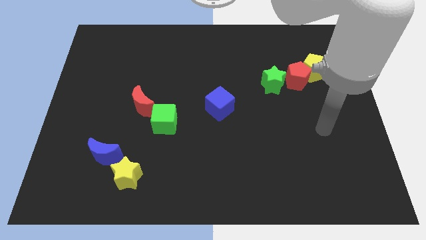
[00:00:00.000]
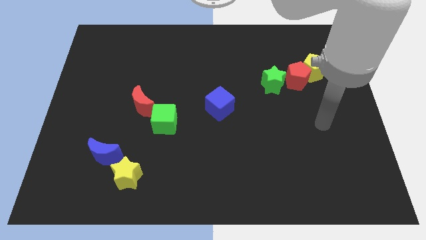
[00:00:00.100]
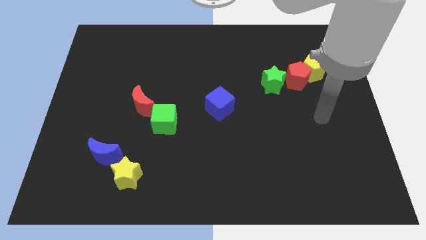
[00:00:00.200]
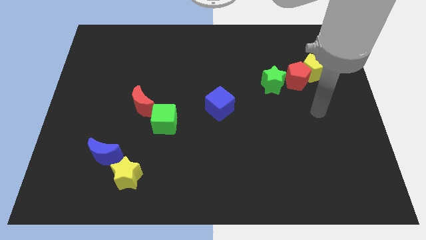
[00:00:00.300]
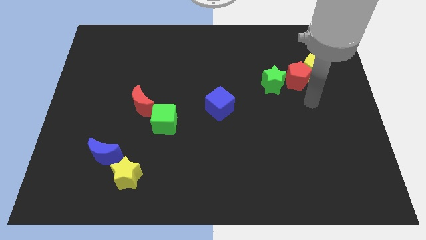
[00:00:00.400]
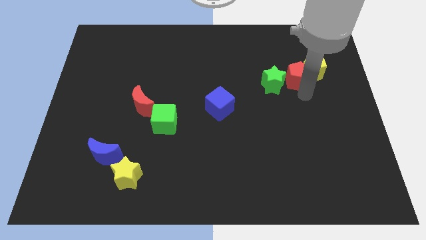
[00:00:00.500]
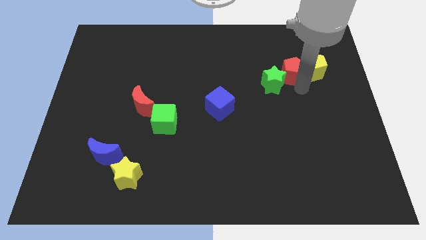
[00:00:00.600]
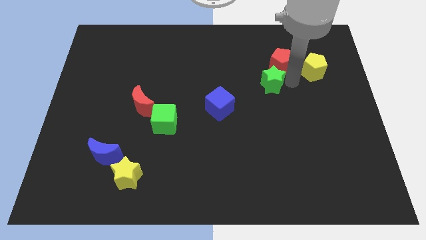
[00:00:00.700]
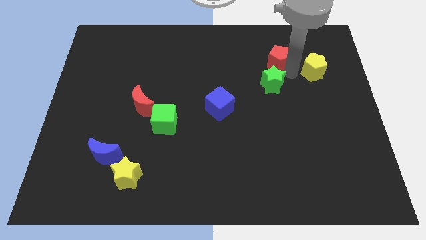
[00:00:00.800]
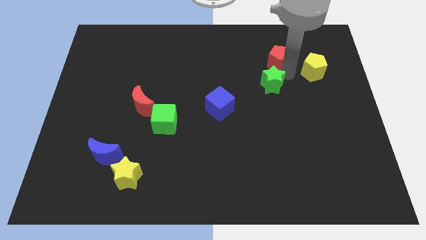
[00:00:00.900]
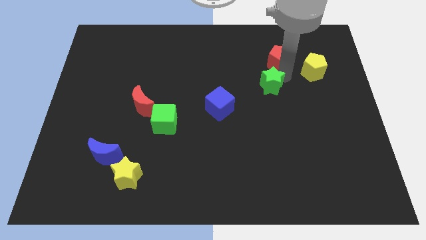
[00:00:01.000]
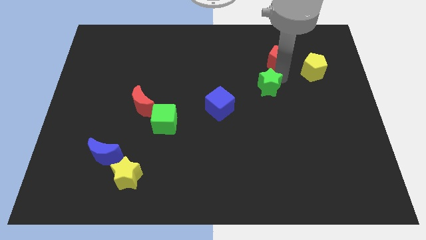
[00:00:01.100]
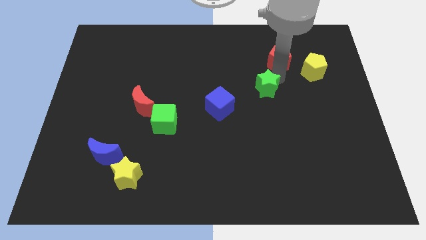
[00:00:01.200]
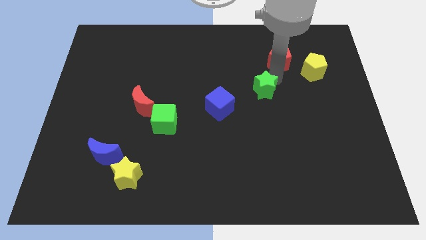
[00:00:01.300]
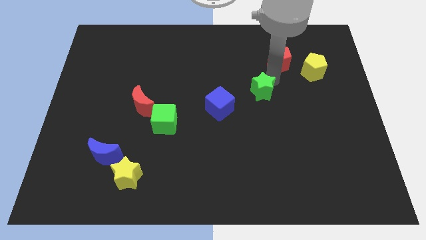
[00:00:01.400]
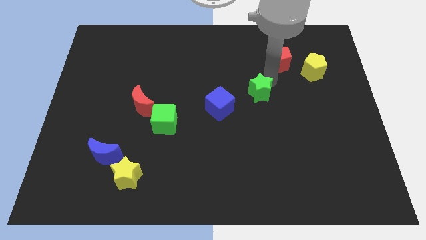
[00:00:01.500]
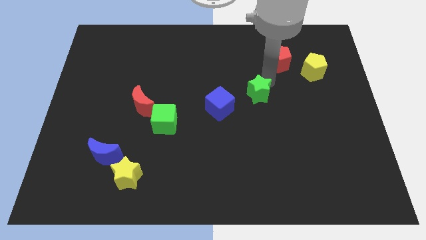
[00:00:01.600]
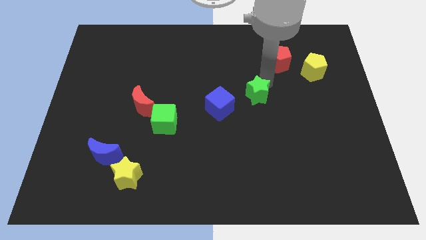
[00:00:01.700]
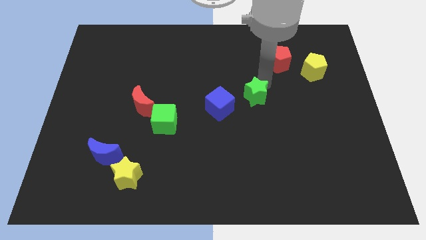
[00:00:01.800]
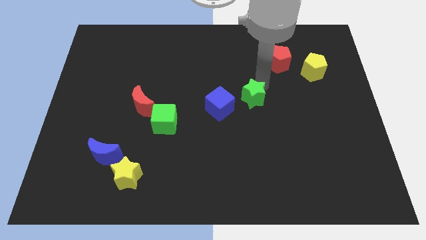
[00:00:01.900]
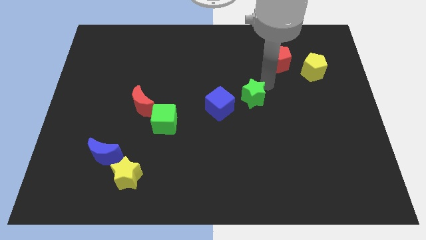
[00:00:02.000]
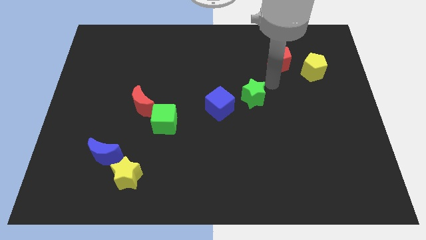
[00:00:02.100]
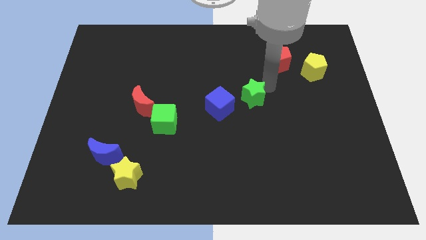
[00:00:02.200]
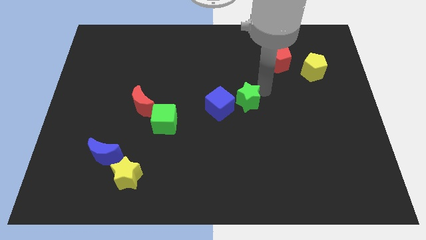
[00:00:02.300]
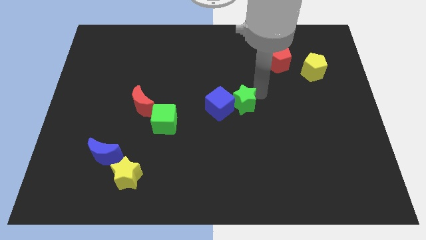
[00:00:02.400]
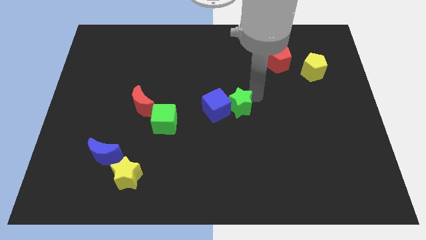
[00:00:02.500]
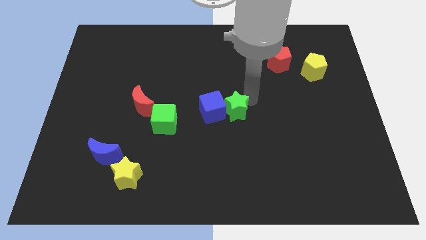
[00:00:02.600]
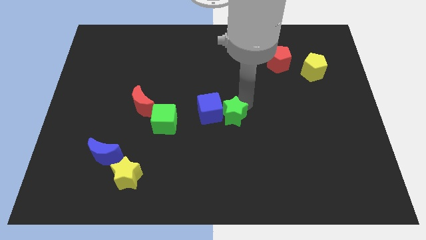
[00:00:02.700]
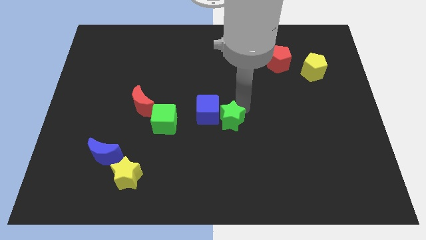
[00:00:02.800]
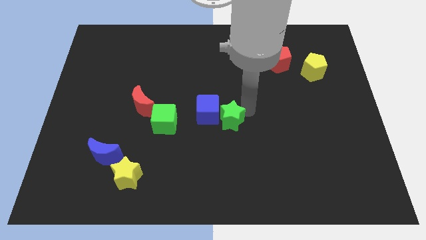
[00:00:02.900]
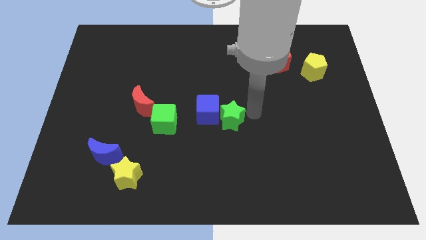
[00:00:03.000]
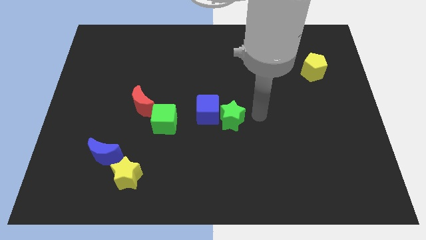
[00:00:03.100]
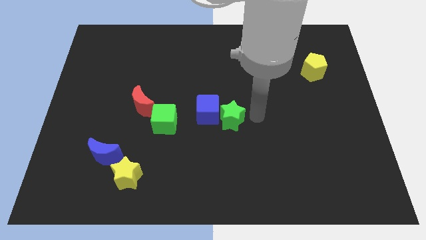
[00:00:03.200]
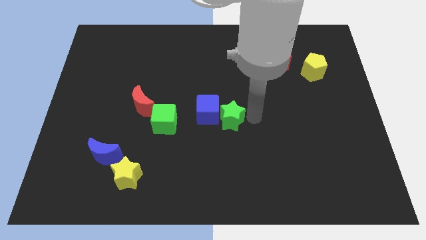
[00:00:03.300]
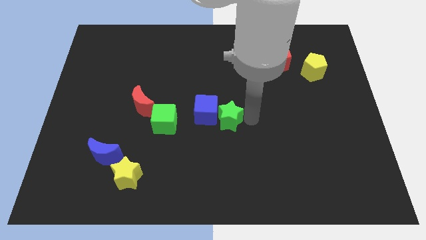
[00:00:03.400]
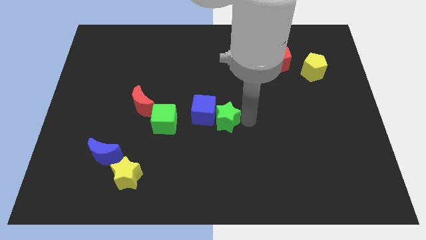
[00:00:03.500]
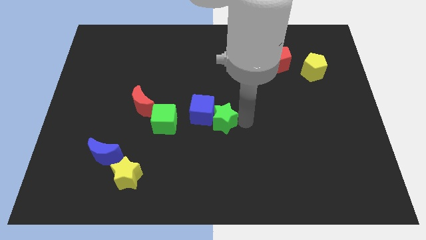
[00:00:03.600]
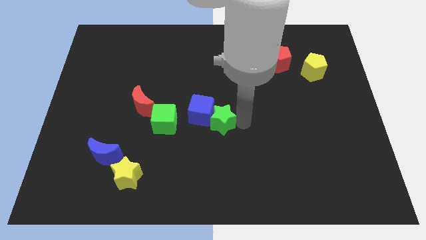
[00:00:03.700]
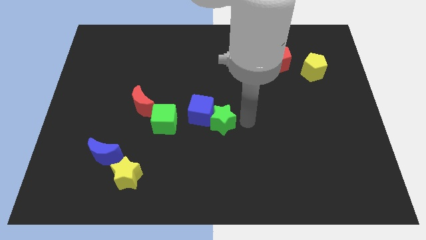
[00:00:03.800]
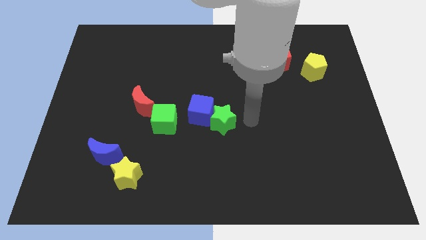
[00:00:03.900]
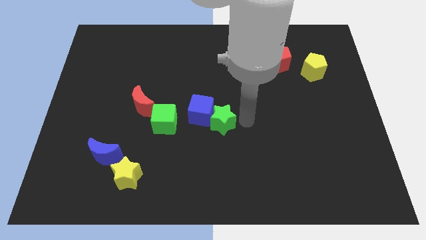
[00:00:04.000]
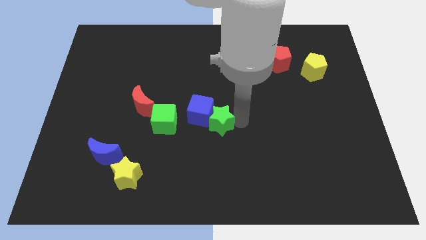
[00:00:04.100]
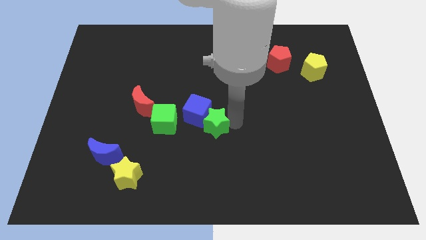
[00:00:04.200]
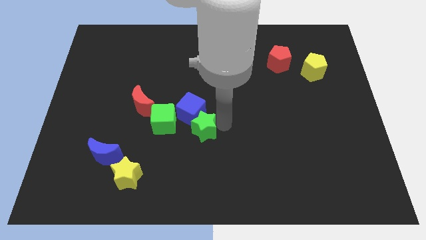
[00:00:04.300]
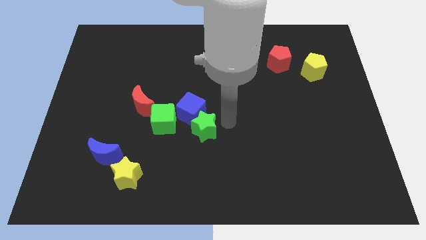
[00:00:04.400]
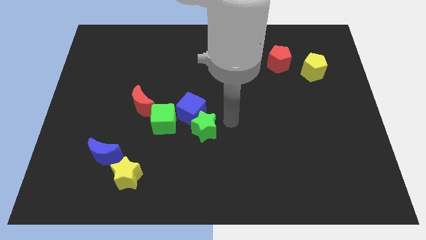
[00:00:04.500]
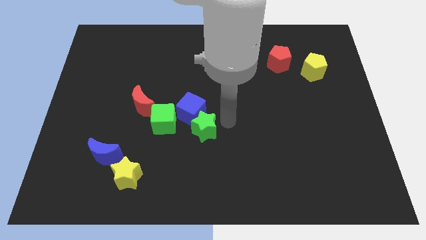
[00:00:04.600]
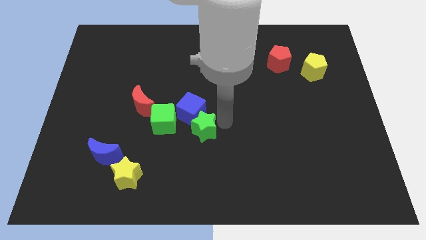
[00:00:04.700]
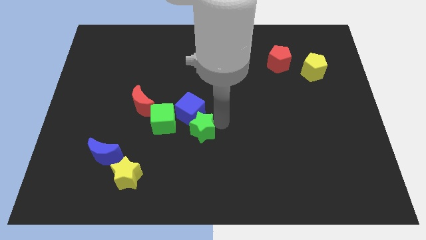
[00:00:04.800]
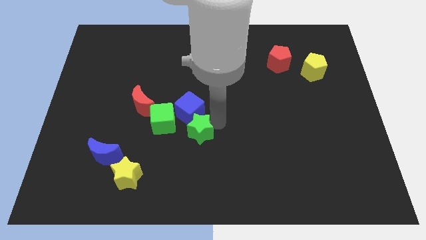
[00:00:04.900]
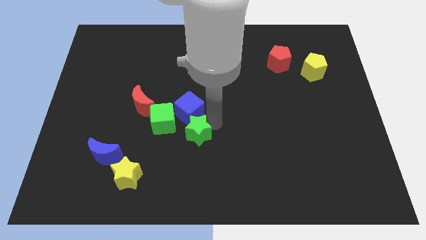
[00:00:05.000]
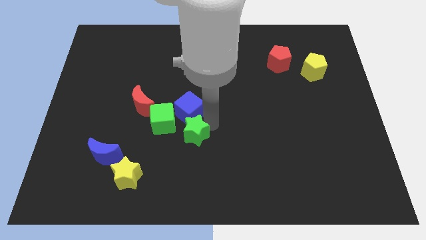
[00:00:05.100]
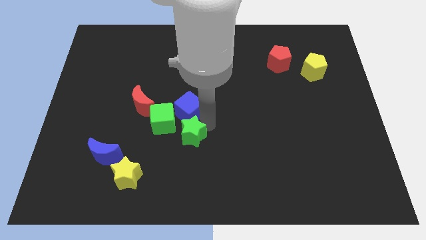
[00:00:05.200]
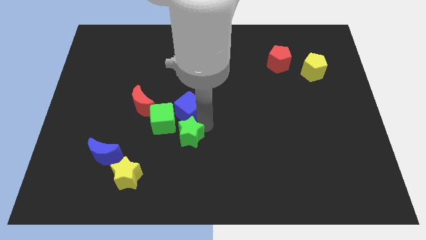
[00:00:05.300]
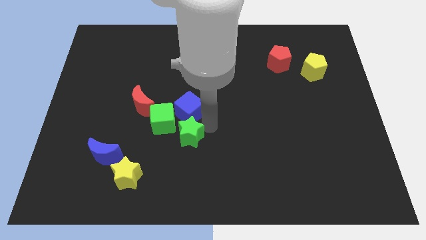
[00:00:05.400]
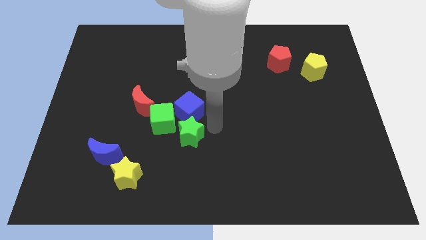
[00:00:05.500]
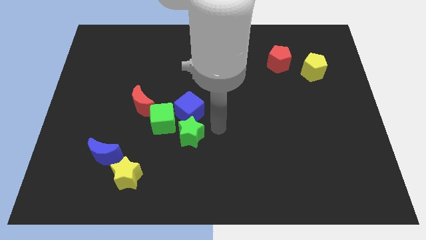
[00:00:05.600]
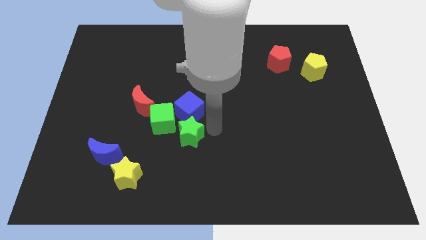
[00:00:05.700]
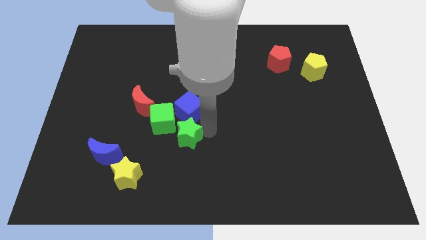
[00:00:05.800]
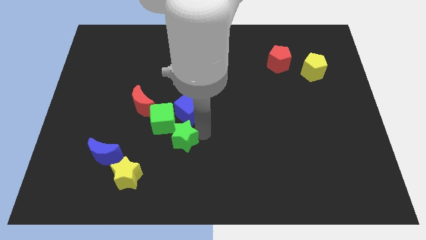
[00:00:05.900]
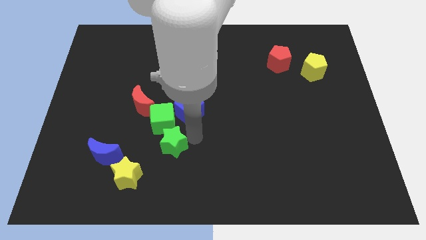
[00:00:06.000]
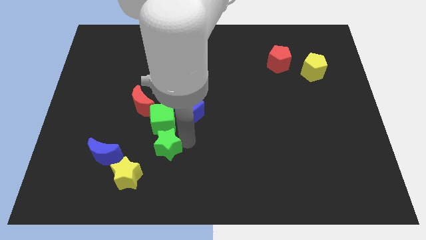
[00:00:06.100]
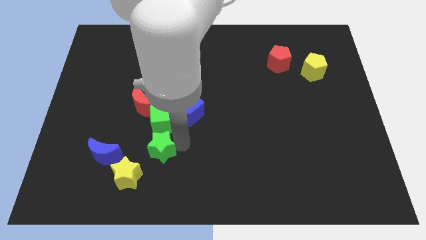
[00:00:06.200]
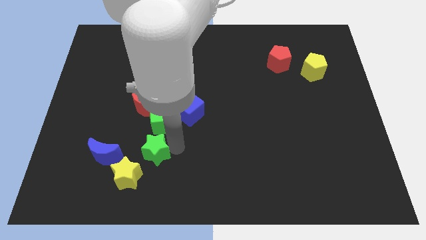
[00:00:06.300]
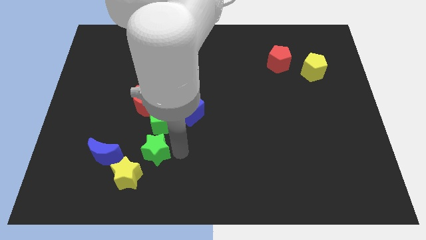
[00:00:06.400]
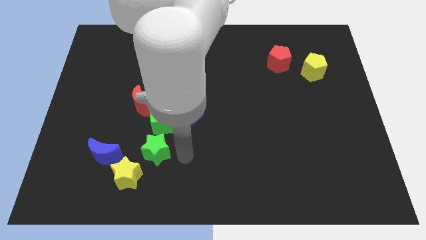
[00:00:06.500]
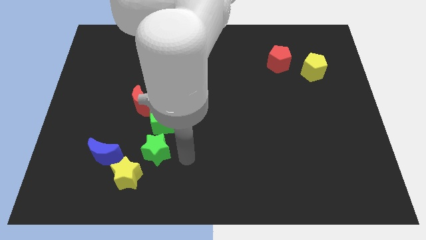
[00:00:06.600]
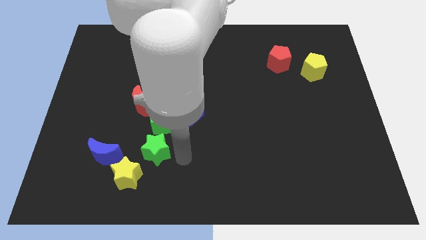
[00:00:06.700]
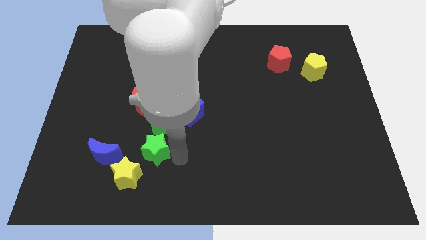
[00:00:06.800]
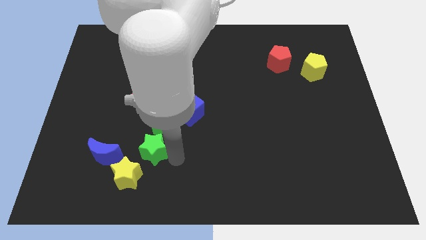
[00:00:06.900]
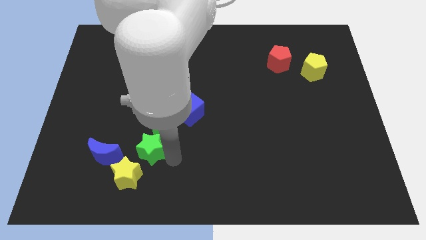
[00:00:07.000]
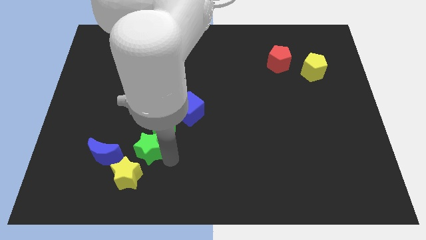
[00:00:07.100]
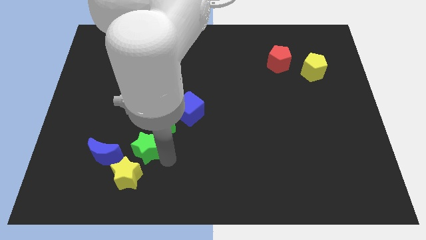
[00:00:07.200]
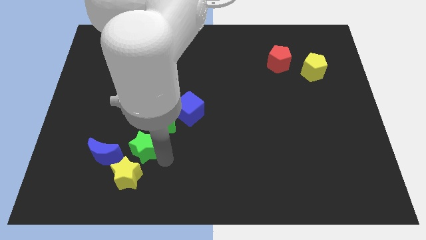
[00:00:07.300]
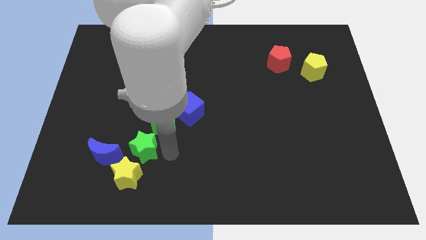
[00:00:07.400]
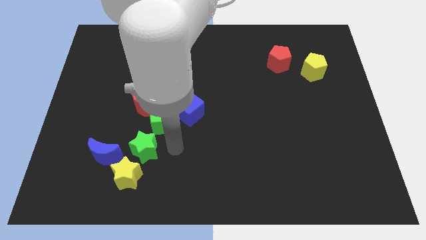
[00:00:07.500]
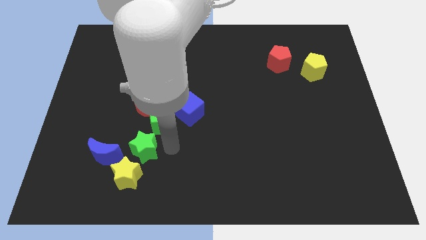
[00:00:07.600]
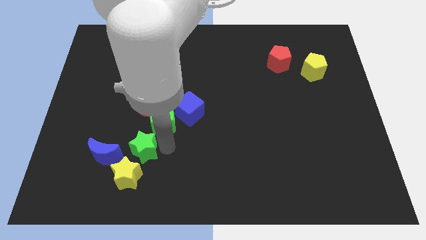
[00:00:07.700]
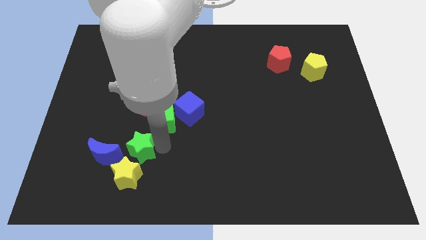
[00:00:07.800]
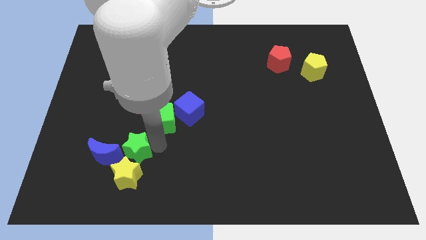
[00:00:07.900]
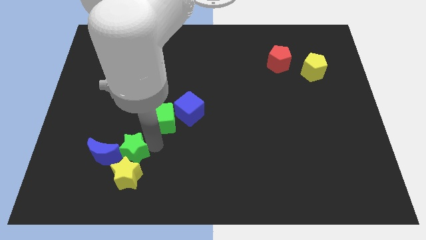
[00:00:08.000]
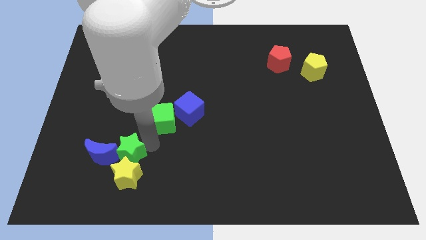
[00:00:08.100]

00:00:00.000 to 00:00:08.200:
push the green star to the blue moon
